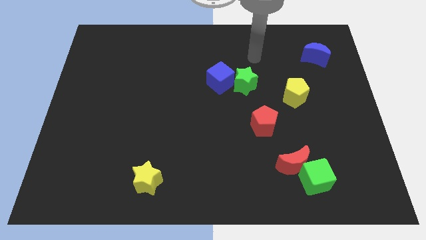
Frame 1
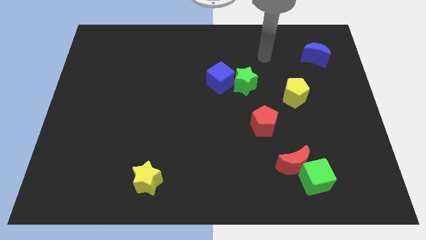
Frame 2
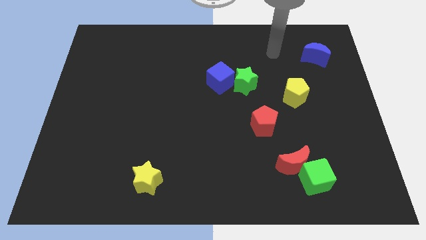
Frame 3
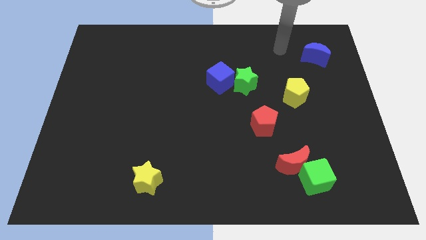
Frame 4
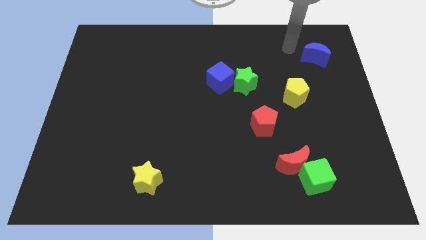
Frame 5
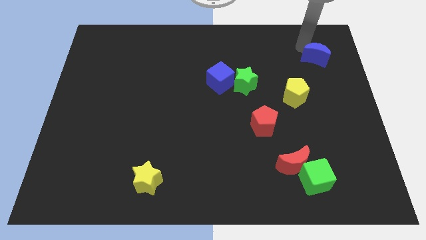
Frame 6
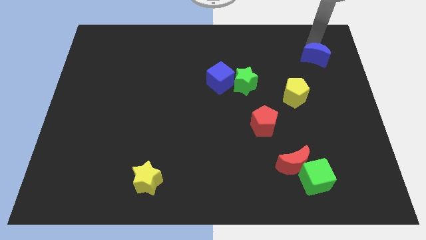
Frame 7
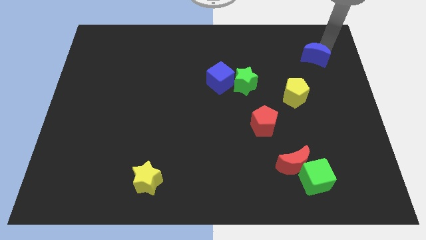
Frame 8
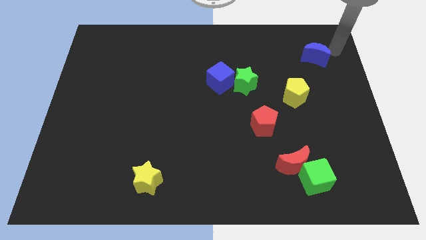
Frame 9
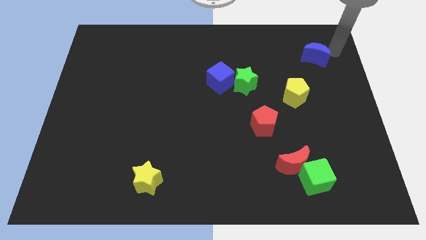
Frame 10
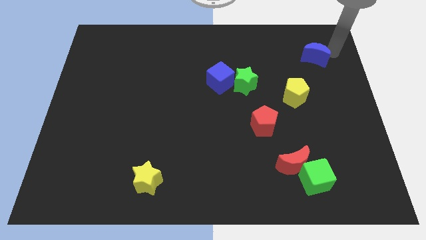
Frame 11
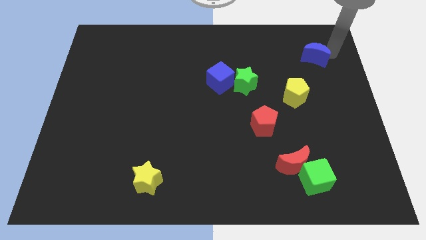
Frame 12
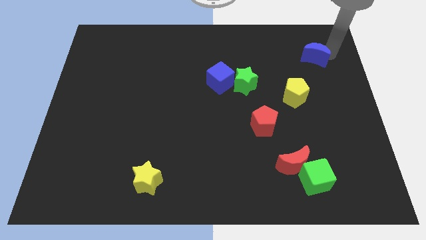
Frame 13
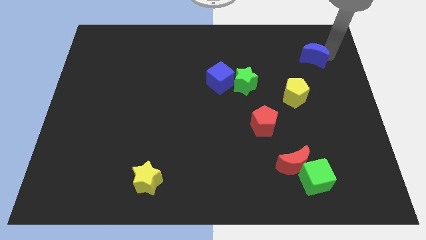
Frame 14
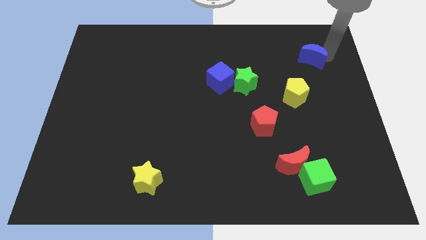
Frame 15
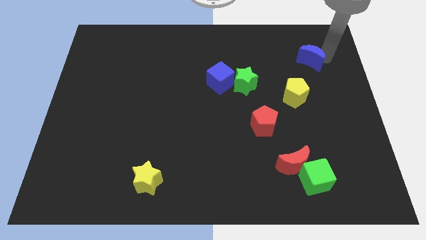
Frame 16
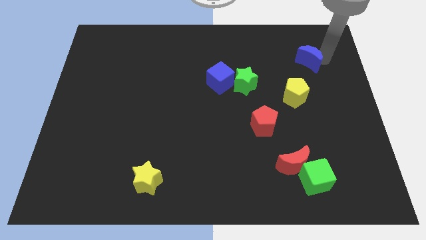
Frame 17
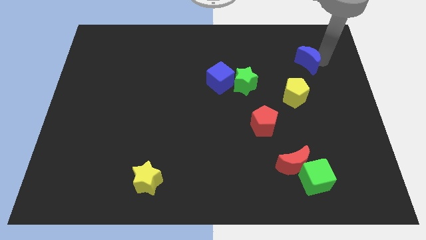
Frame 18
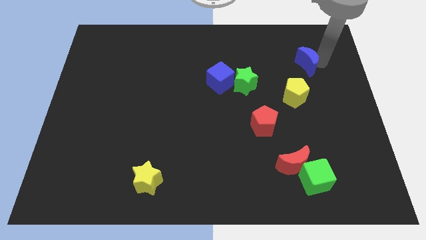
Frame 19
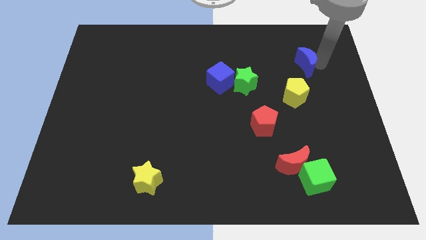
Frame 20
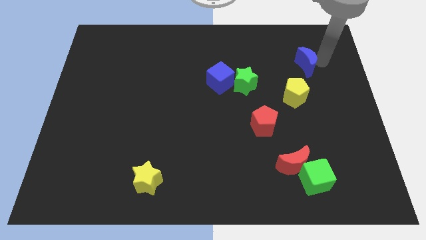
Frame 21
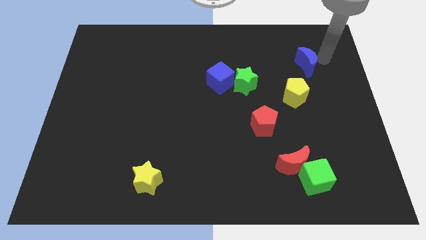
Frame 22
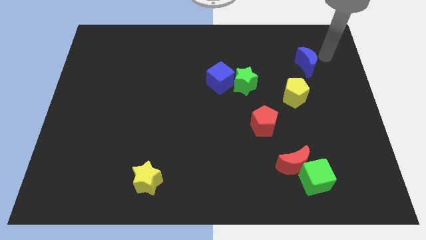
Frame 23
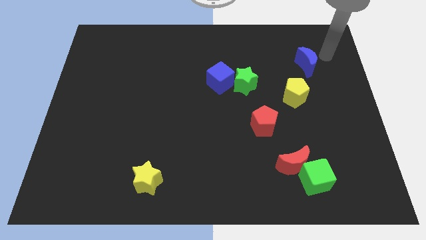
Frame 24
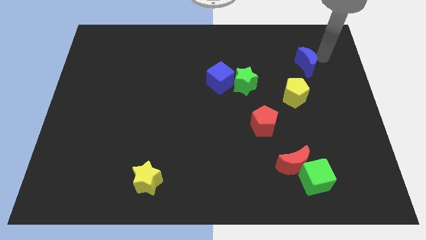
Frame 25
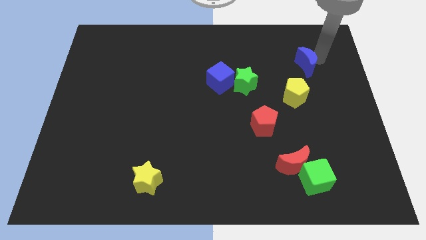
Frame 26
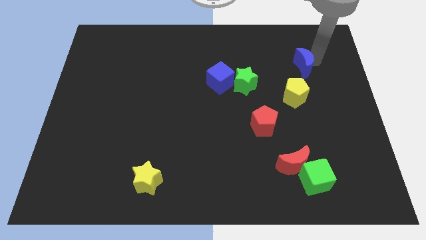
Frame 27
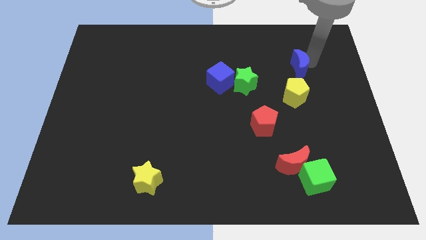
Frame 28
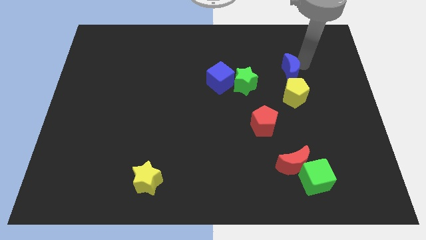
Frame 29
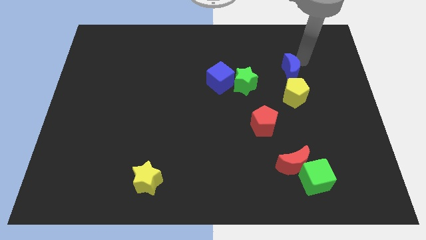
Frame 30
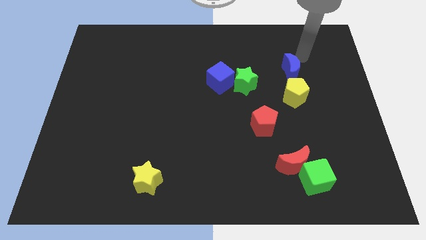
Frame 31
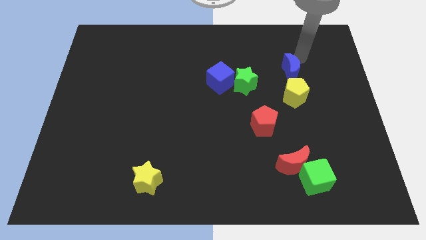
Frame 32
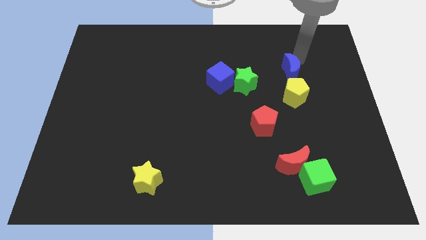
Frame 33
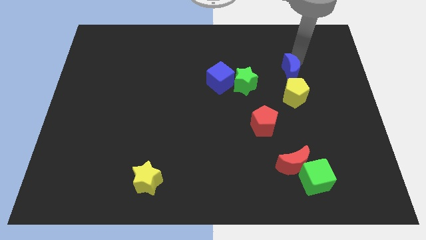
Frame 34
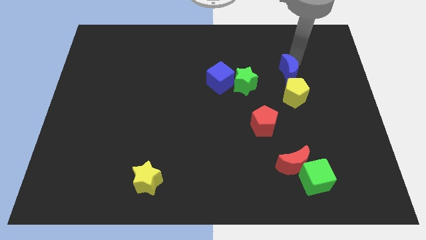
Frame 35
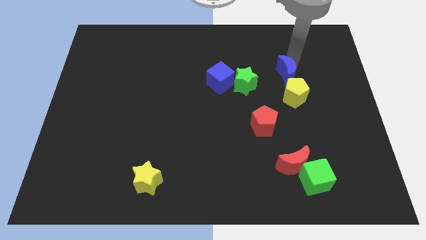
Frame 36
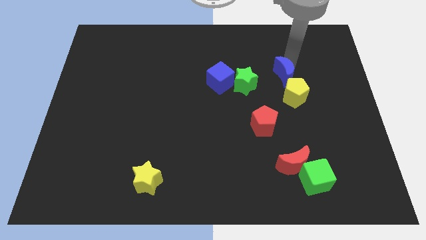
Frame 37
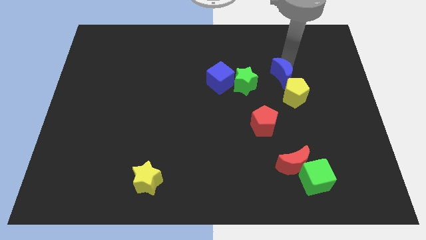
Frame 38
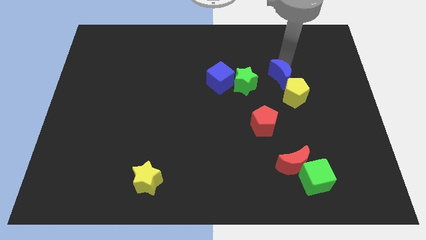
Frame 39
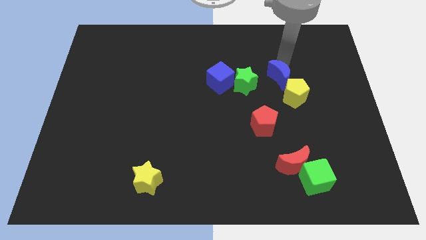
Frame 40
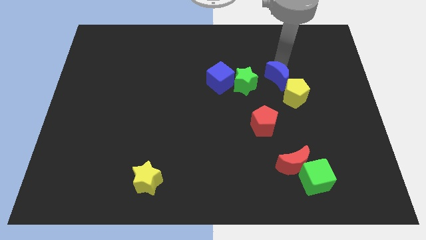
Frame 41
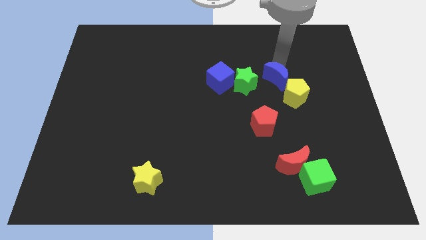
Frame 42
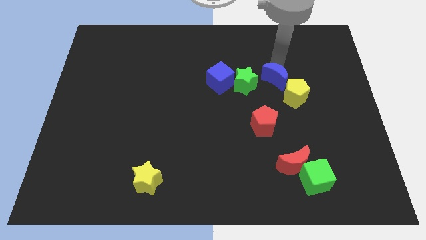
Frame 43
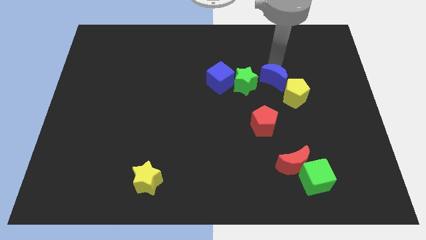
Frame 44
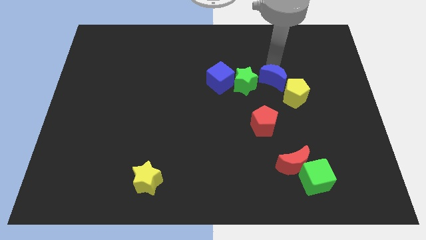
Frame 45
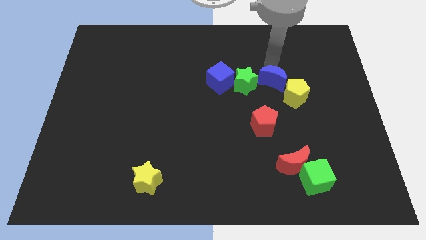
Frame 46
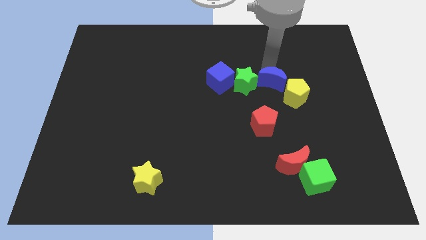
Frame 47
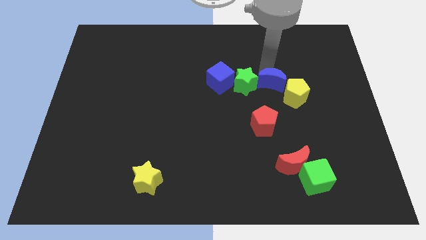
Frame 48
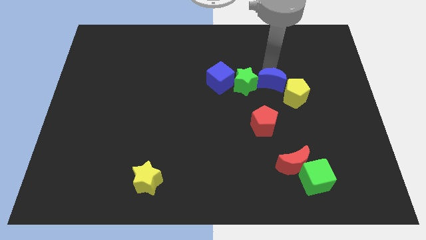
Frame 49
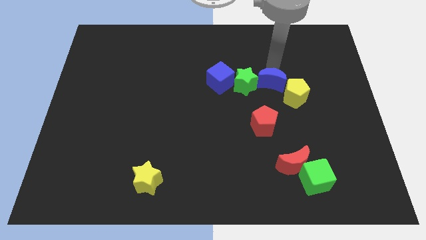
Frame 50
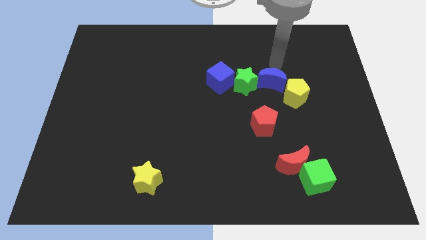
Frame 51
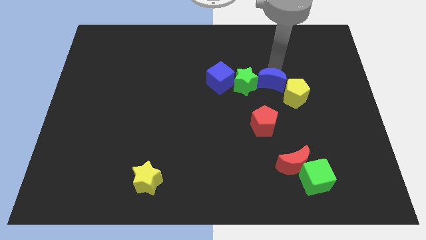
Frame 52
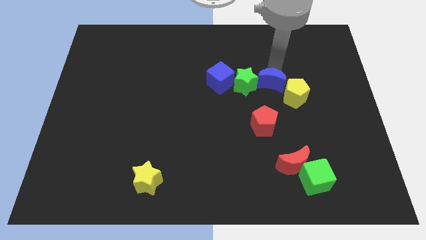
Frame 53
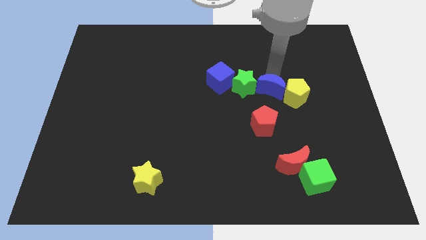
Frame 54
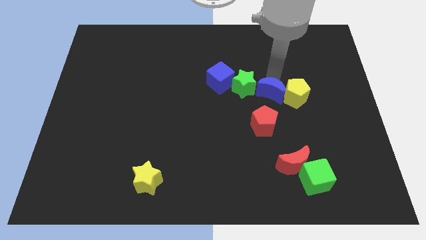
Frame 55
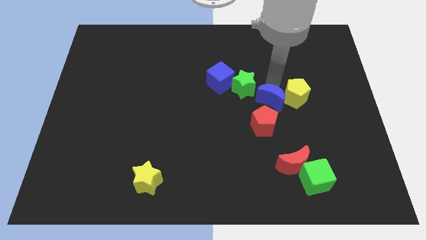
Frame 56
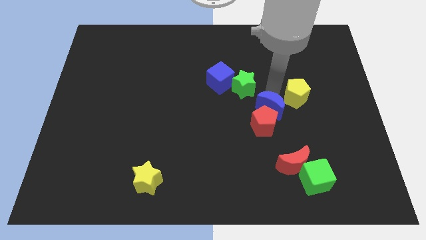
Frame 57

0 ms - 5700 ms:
put the blue moon to the red pentagon

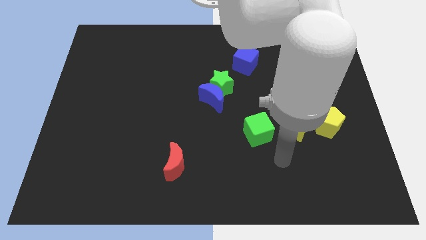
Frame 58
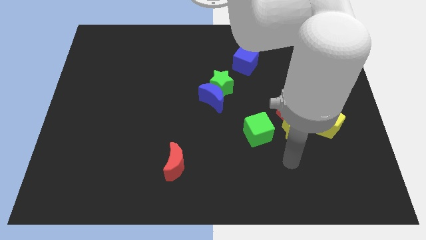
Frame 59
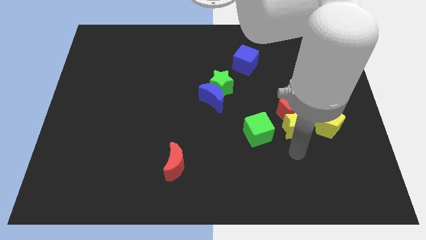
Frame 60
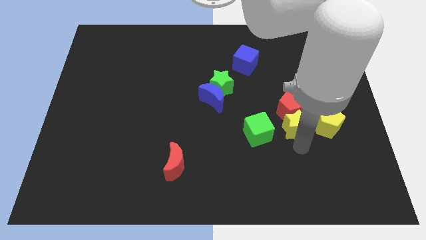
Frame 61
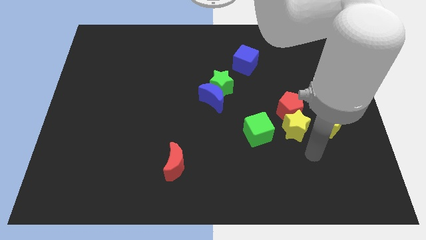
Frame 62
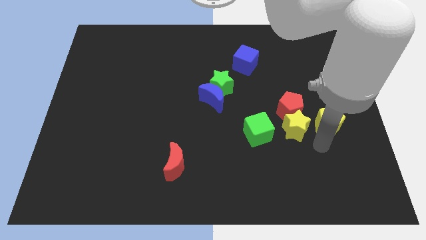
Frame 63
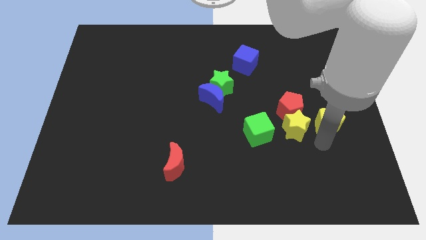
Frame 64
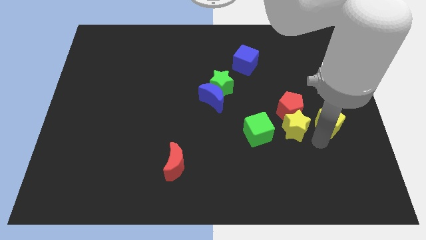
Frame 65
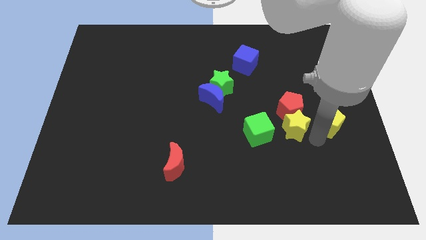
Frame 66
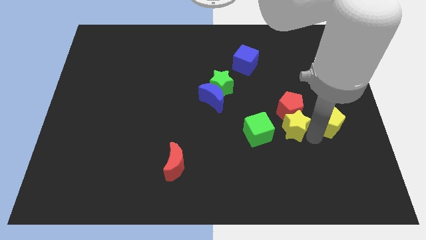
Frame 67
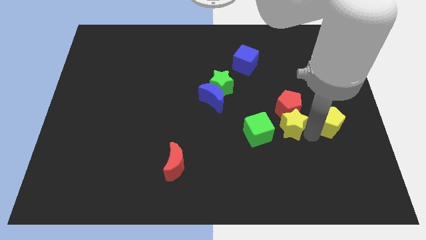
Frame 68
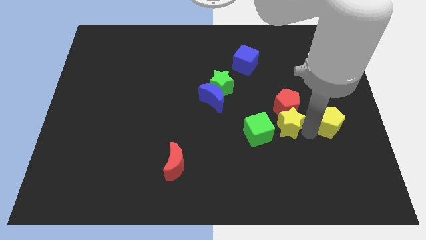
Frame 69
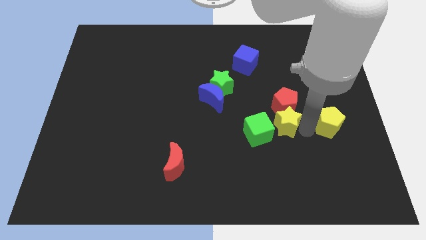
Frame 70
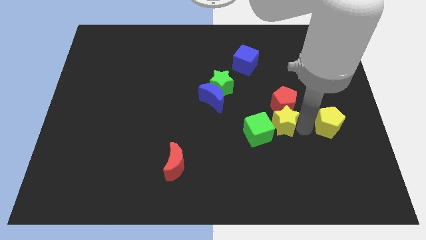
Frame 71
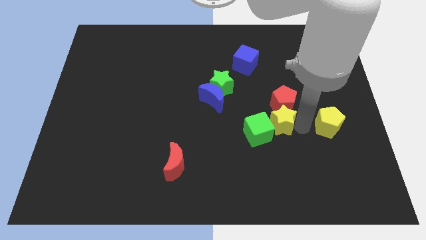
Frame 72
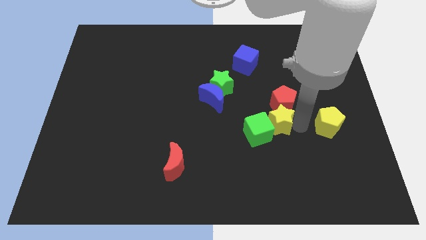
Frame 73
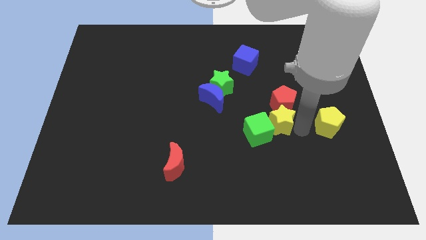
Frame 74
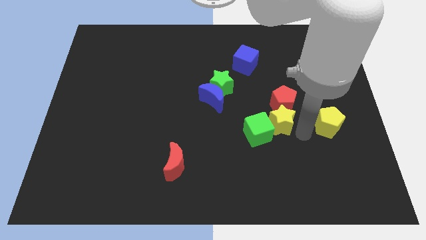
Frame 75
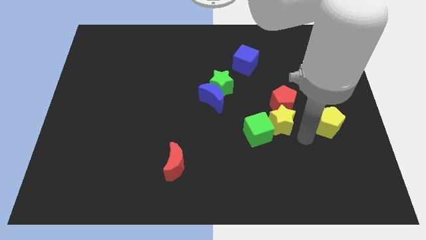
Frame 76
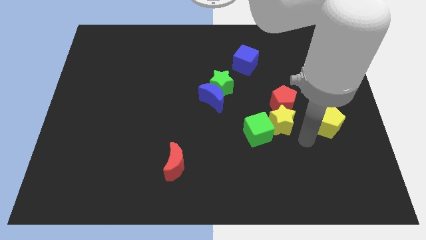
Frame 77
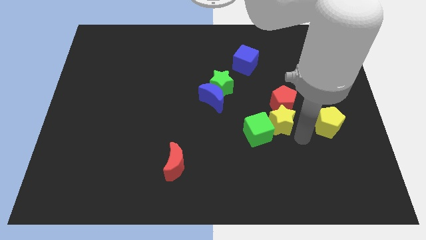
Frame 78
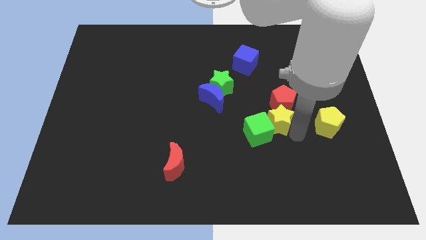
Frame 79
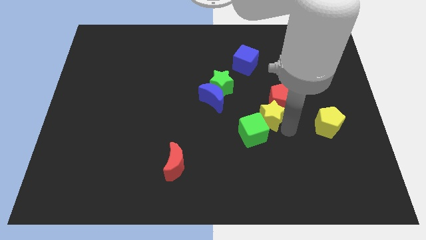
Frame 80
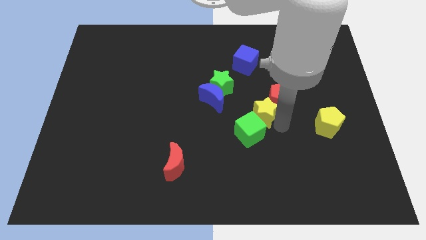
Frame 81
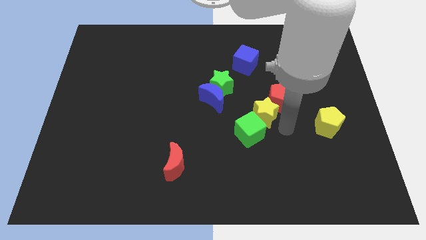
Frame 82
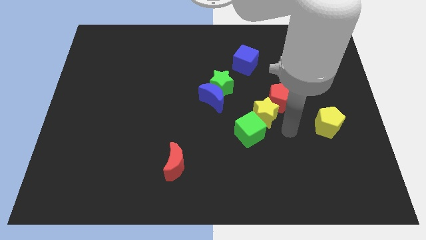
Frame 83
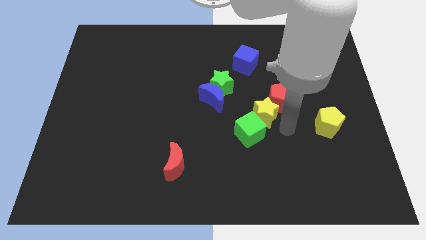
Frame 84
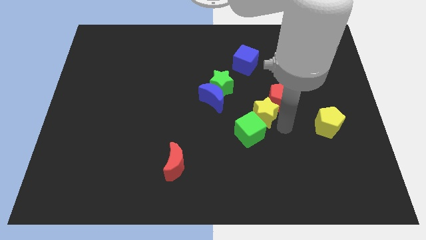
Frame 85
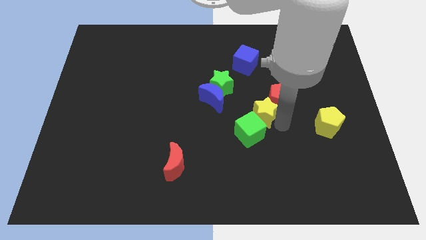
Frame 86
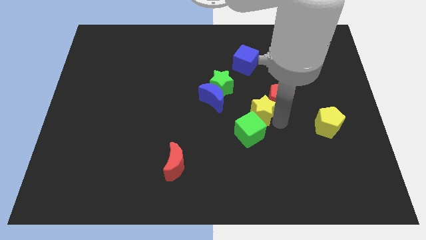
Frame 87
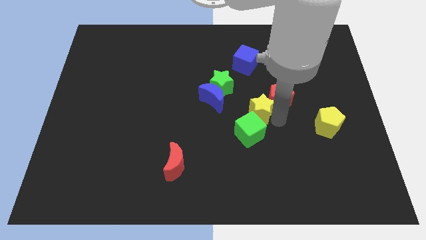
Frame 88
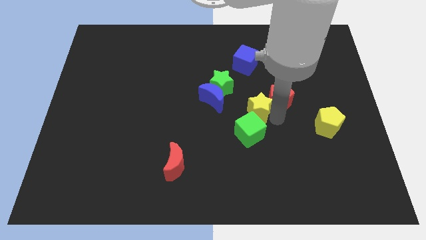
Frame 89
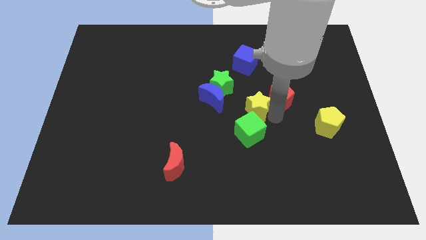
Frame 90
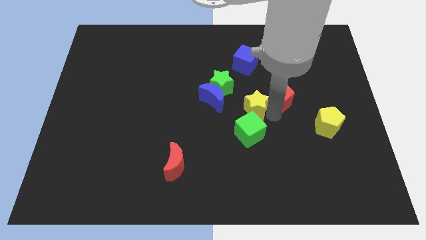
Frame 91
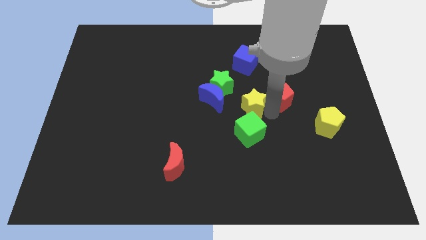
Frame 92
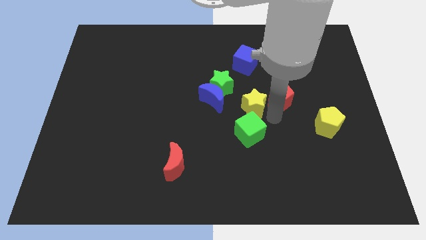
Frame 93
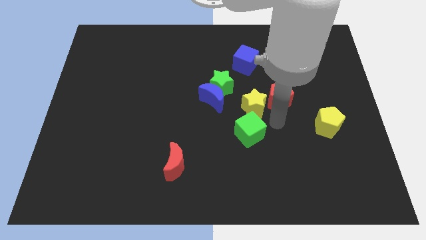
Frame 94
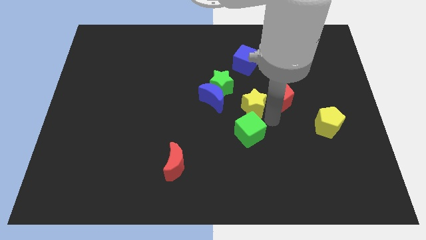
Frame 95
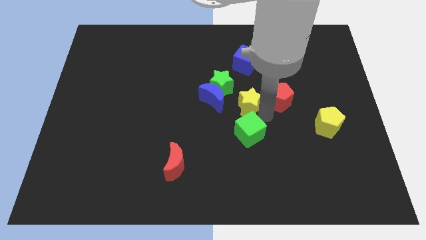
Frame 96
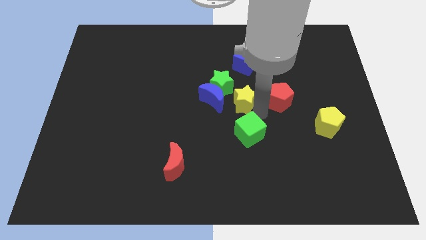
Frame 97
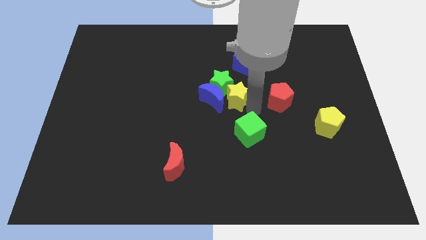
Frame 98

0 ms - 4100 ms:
move the yellow star to the green star
